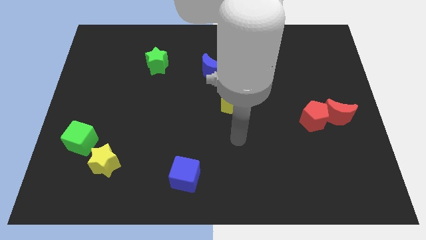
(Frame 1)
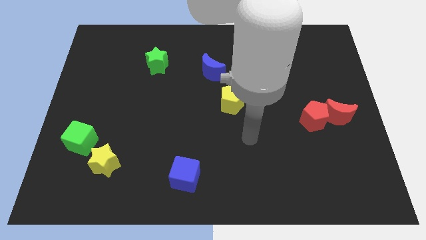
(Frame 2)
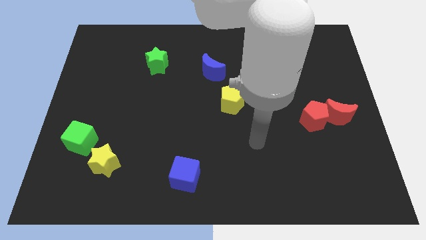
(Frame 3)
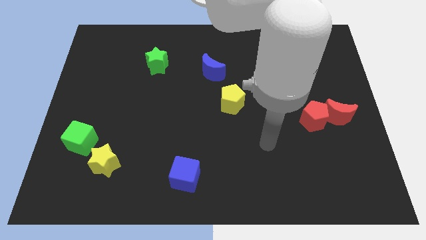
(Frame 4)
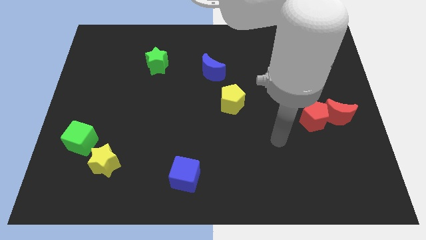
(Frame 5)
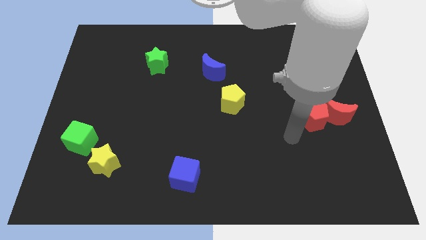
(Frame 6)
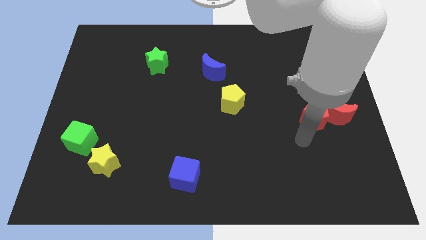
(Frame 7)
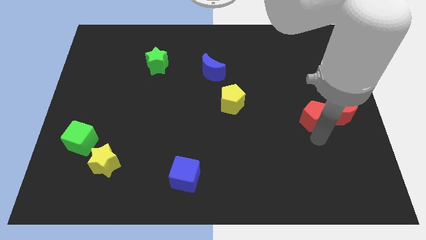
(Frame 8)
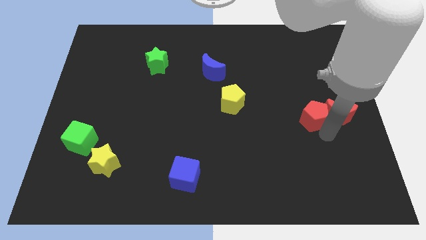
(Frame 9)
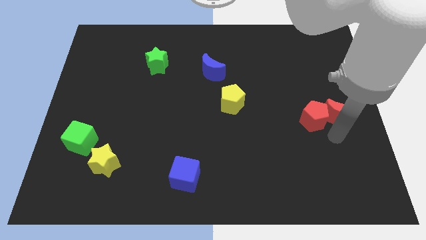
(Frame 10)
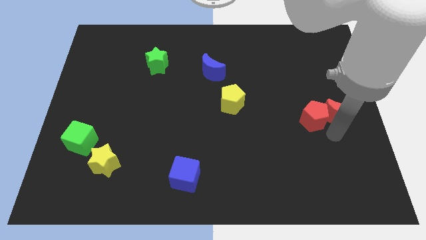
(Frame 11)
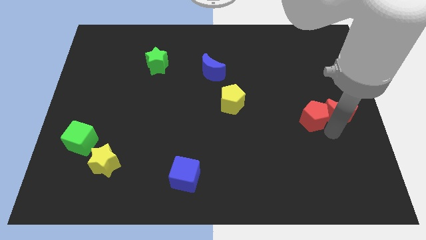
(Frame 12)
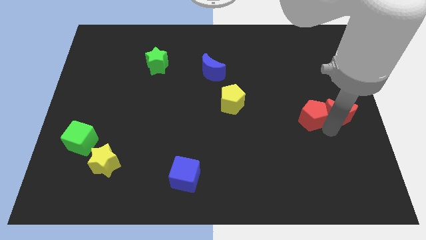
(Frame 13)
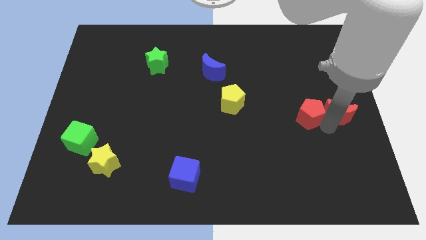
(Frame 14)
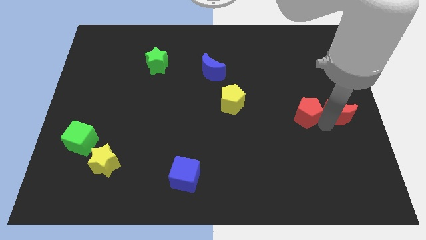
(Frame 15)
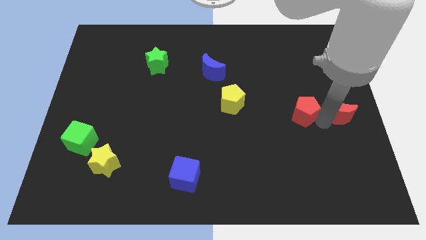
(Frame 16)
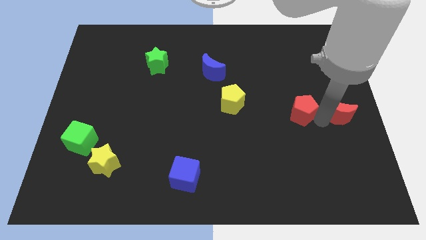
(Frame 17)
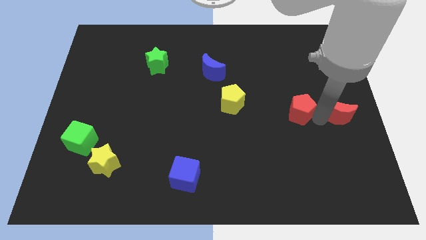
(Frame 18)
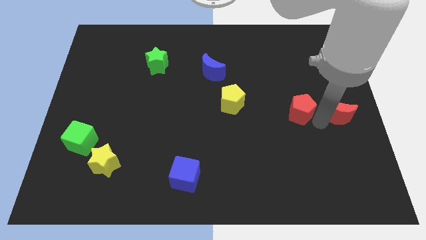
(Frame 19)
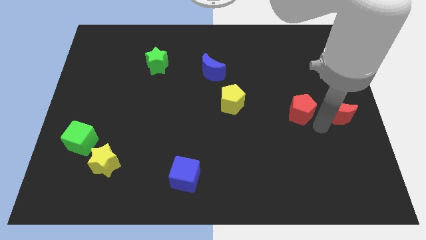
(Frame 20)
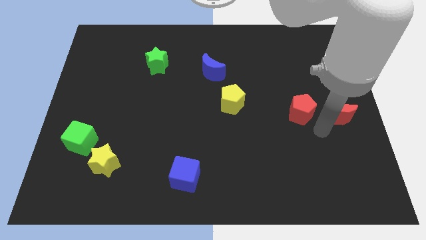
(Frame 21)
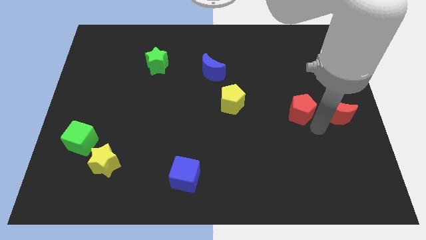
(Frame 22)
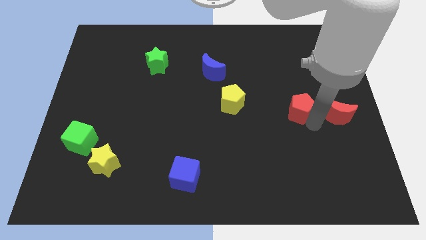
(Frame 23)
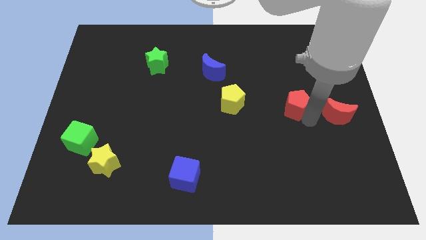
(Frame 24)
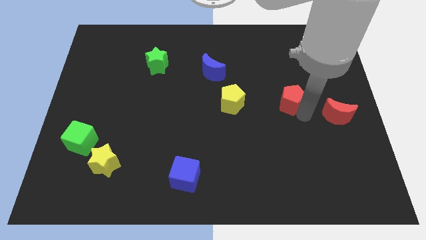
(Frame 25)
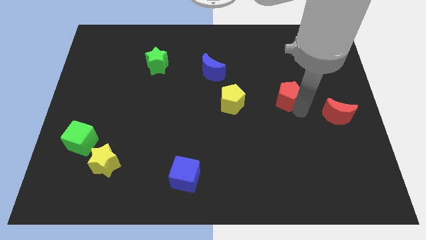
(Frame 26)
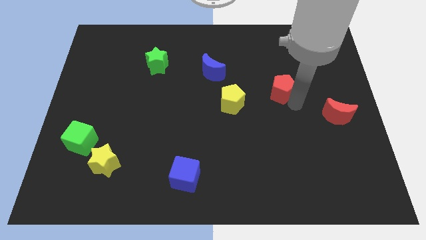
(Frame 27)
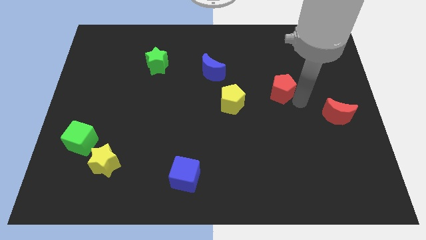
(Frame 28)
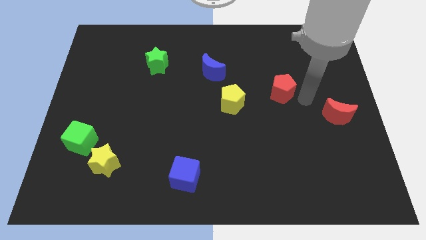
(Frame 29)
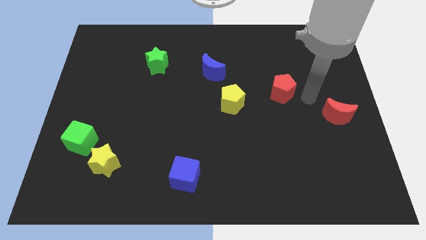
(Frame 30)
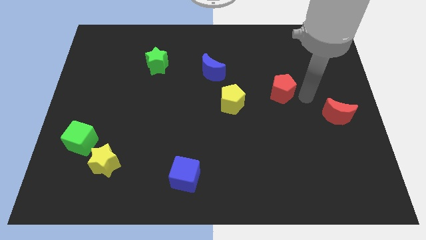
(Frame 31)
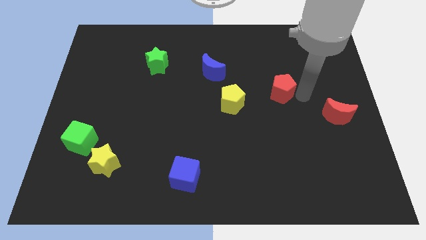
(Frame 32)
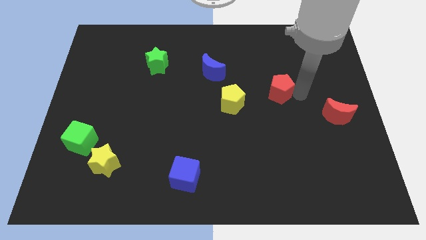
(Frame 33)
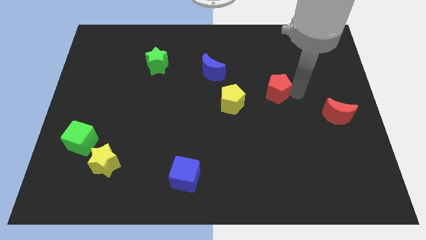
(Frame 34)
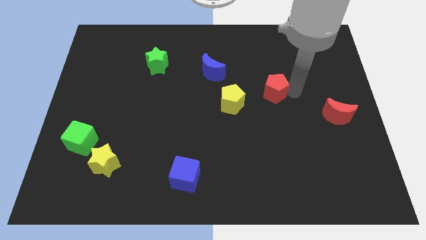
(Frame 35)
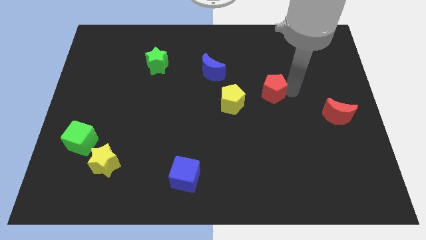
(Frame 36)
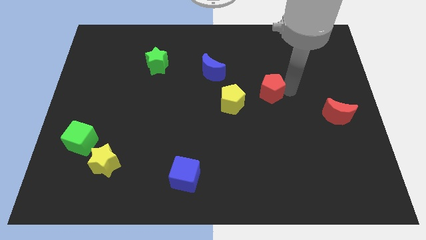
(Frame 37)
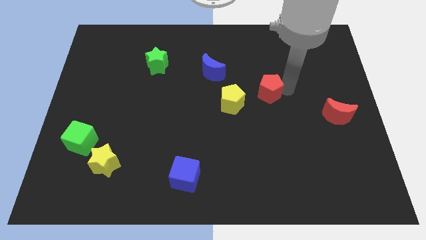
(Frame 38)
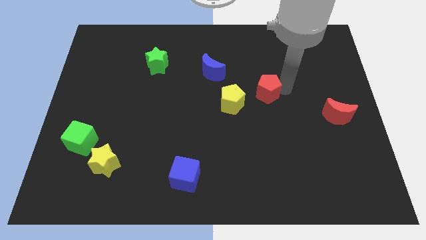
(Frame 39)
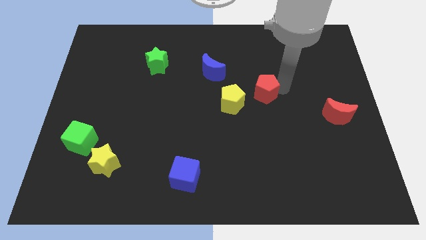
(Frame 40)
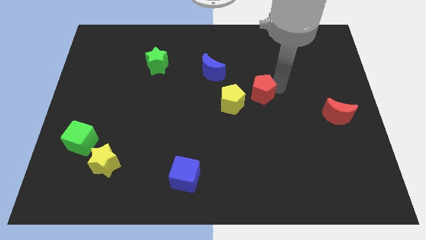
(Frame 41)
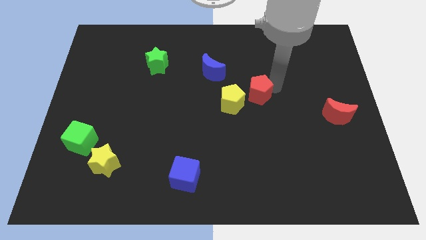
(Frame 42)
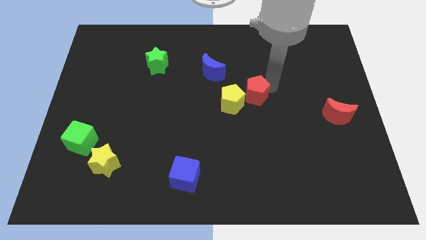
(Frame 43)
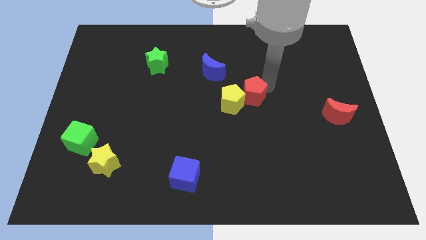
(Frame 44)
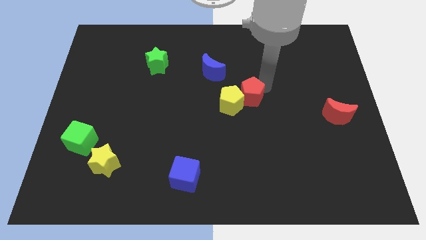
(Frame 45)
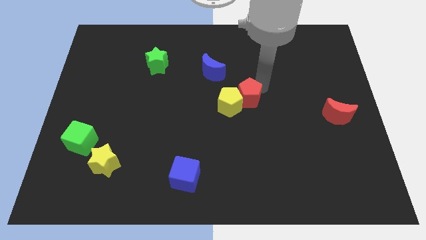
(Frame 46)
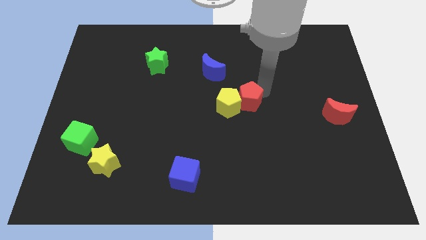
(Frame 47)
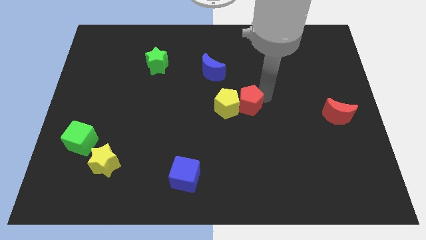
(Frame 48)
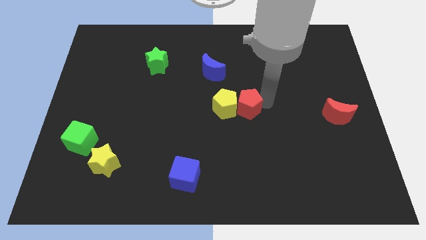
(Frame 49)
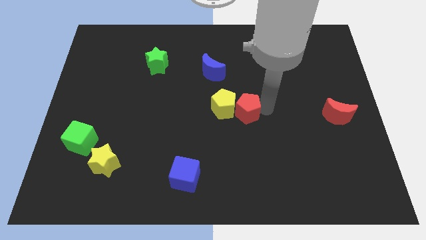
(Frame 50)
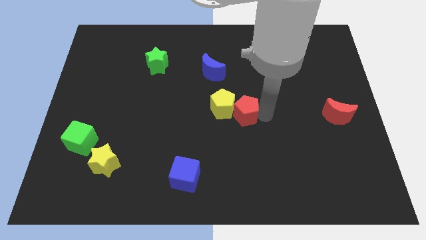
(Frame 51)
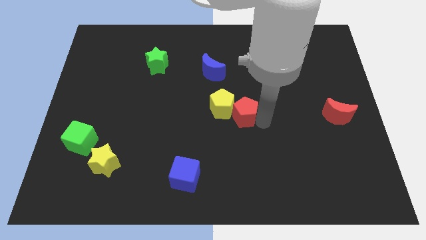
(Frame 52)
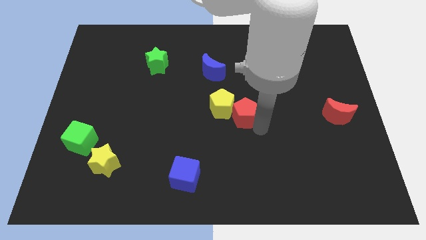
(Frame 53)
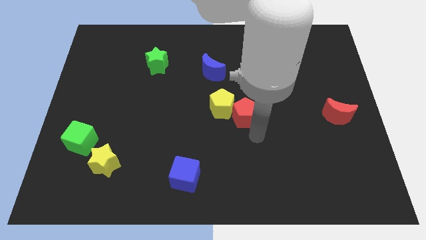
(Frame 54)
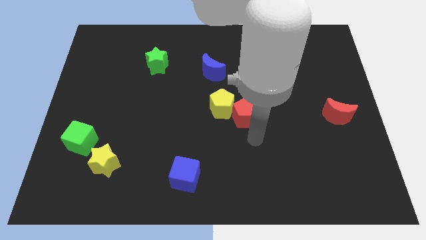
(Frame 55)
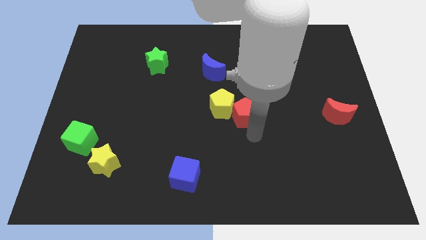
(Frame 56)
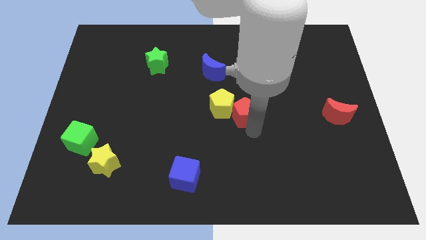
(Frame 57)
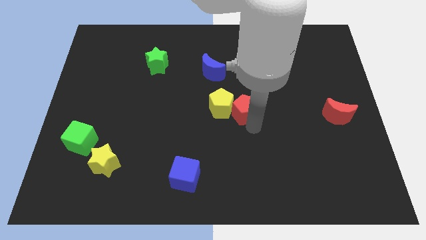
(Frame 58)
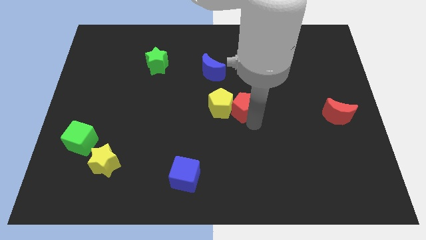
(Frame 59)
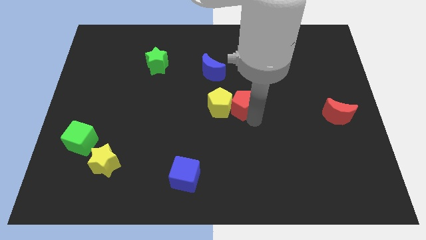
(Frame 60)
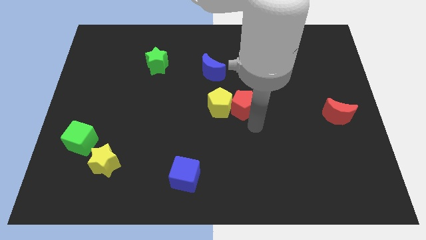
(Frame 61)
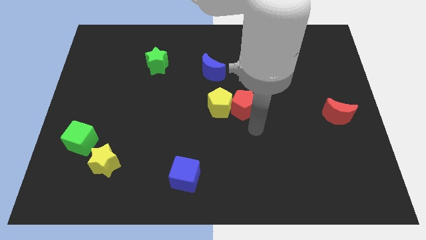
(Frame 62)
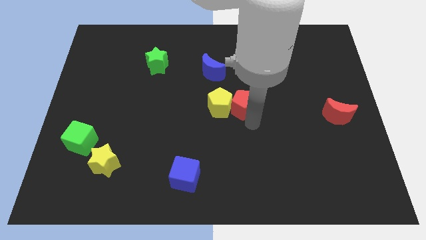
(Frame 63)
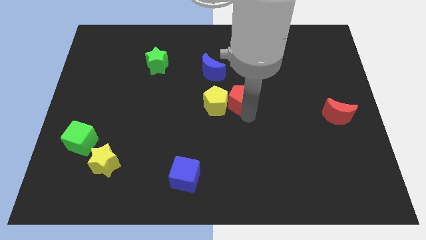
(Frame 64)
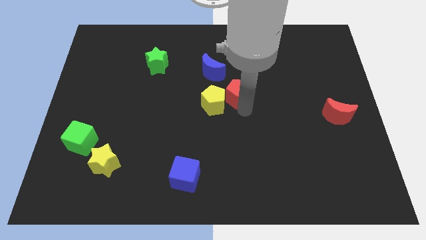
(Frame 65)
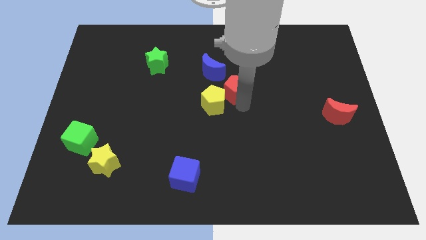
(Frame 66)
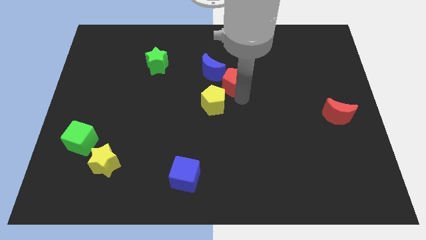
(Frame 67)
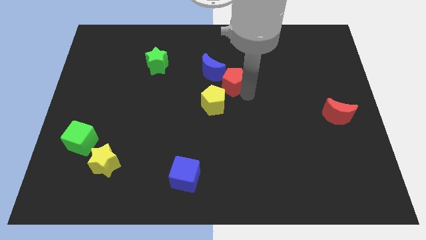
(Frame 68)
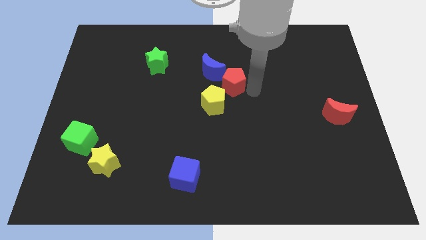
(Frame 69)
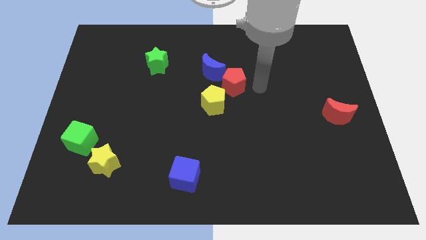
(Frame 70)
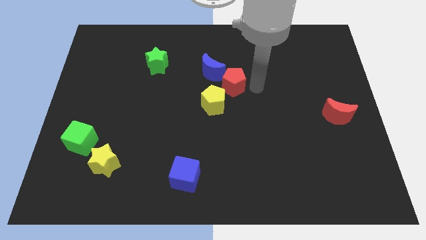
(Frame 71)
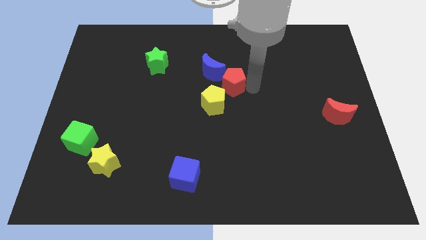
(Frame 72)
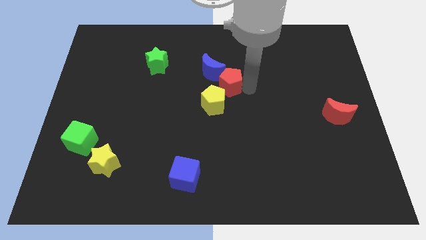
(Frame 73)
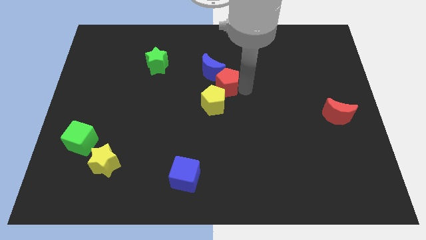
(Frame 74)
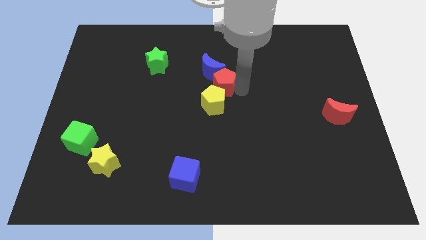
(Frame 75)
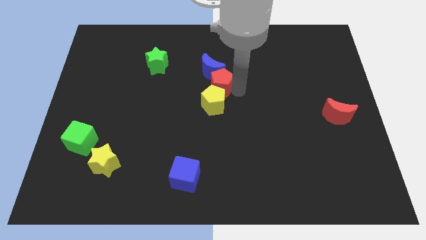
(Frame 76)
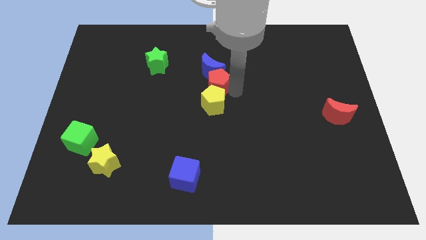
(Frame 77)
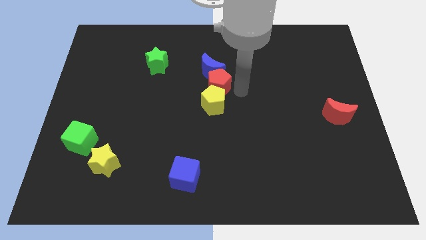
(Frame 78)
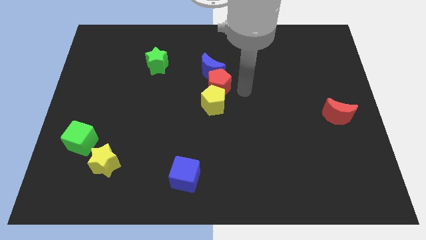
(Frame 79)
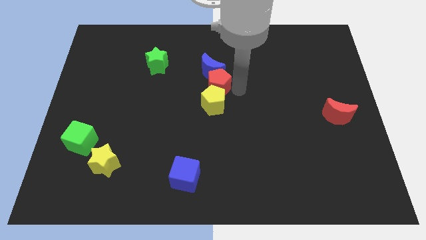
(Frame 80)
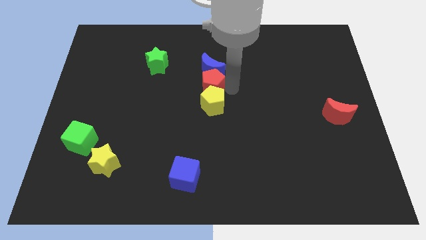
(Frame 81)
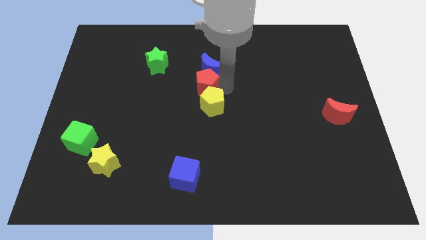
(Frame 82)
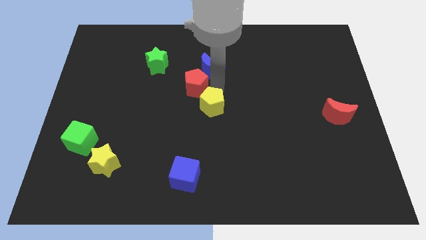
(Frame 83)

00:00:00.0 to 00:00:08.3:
move the red pentagon to the bottom right of the green star
